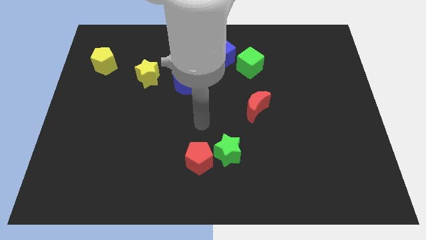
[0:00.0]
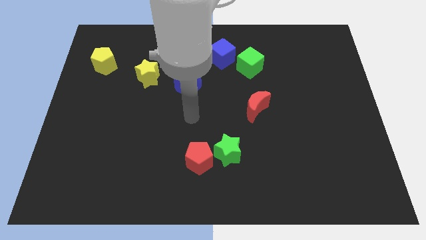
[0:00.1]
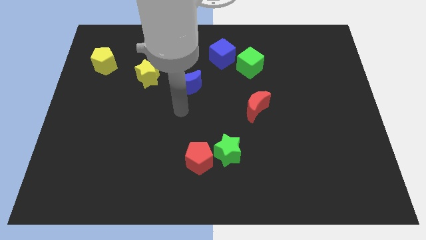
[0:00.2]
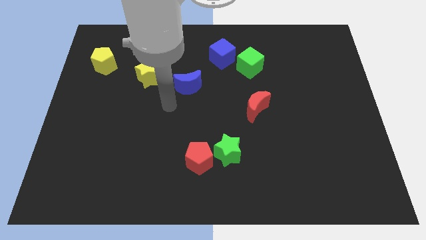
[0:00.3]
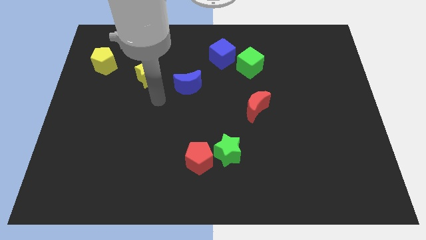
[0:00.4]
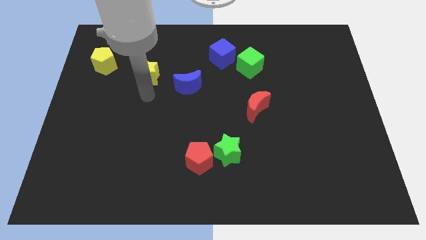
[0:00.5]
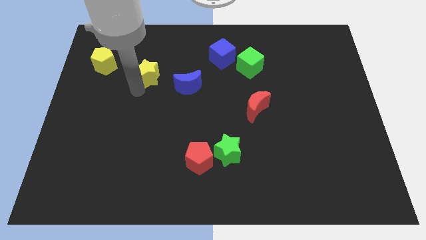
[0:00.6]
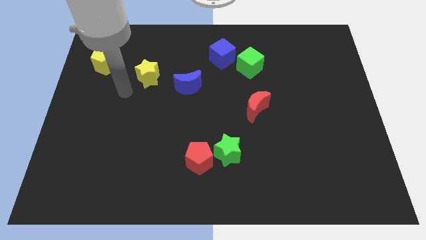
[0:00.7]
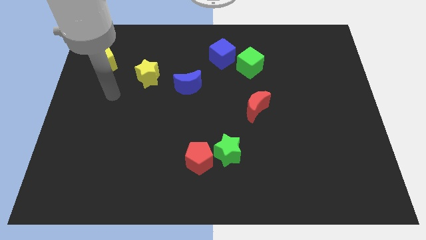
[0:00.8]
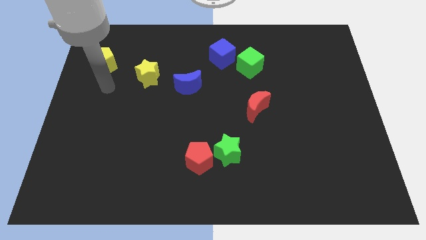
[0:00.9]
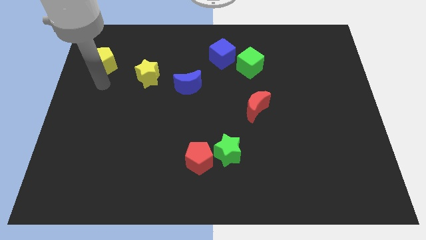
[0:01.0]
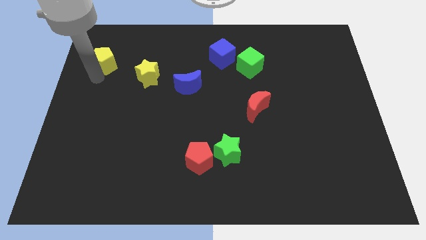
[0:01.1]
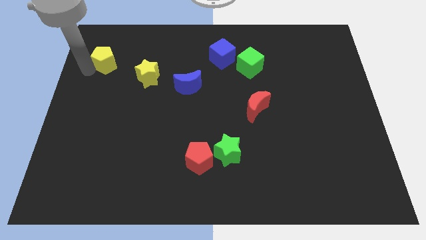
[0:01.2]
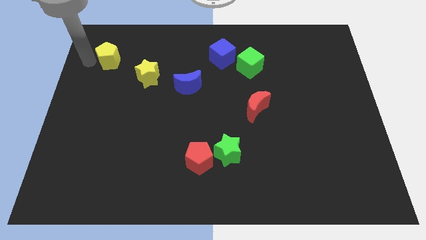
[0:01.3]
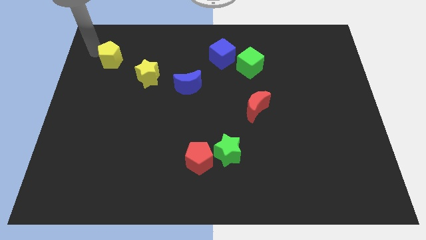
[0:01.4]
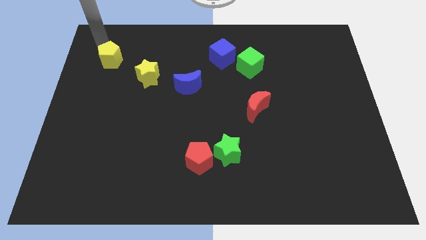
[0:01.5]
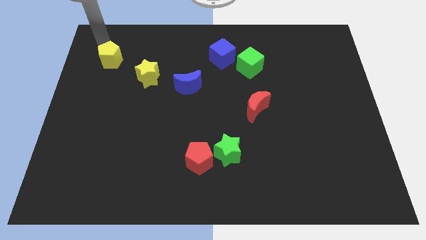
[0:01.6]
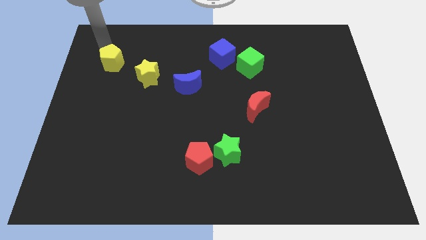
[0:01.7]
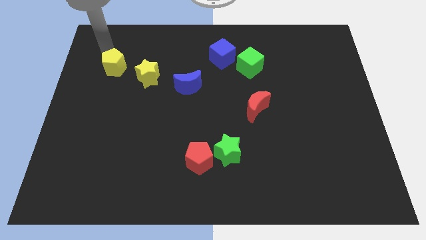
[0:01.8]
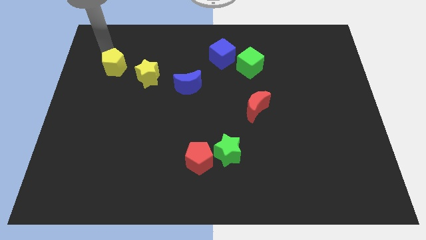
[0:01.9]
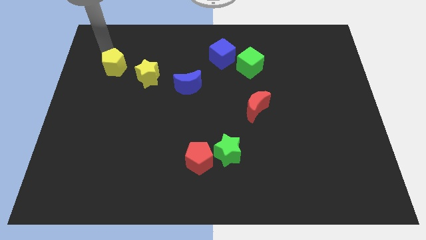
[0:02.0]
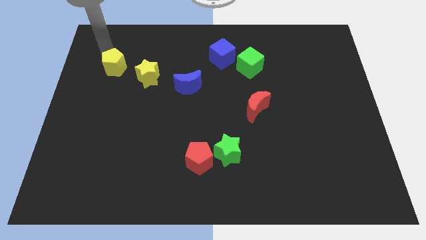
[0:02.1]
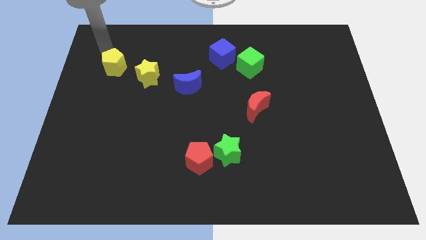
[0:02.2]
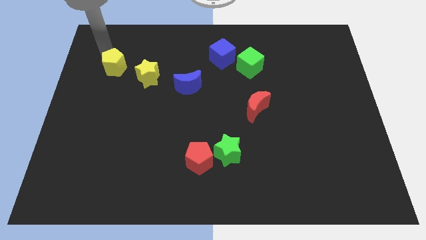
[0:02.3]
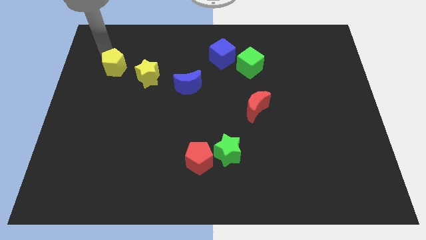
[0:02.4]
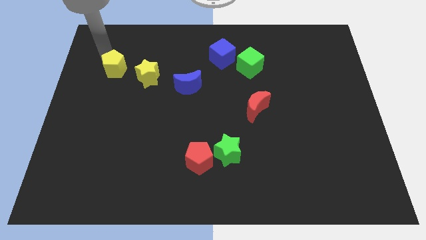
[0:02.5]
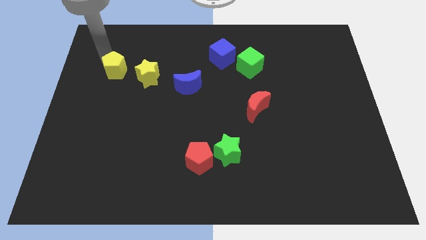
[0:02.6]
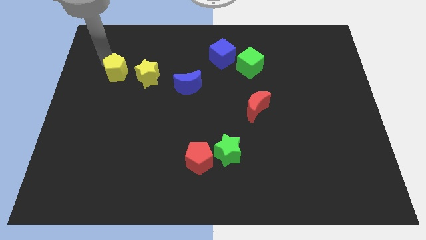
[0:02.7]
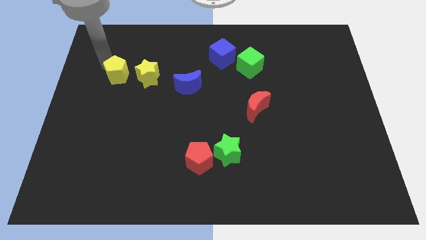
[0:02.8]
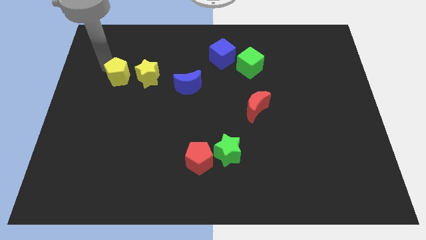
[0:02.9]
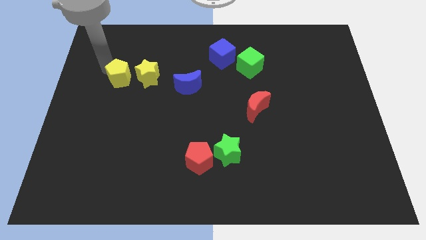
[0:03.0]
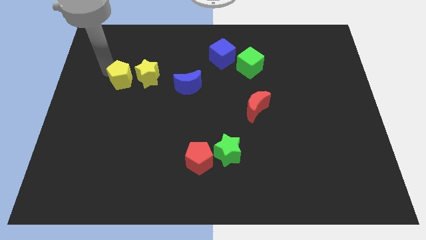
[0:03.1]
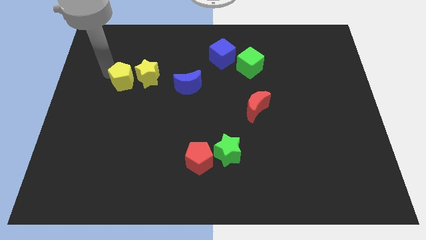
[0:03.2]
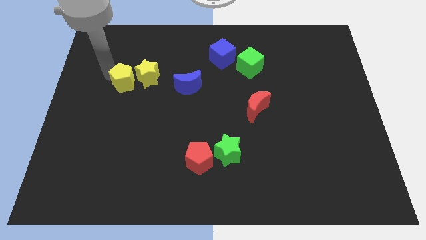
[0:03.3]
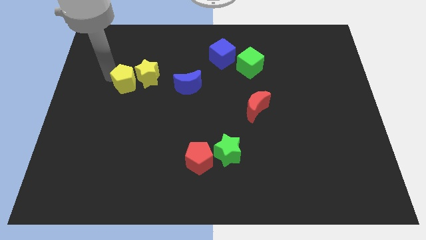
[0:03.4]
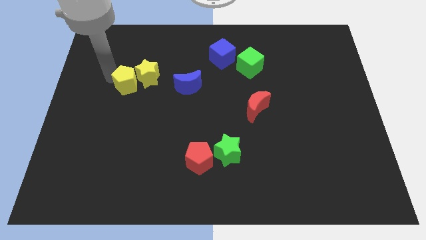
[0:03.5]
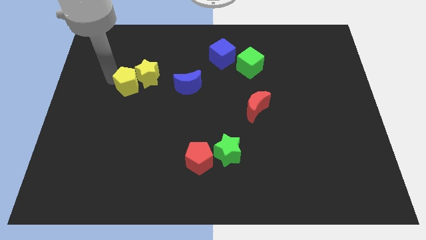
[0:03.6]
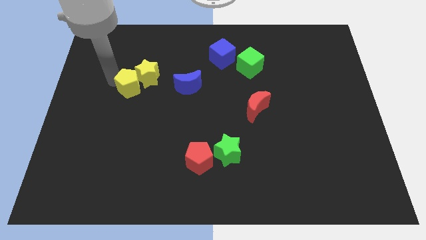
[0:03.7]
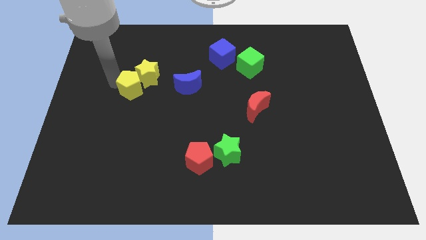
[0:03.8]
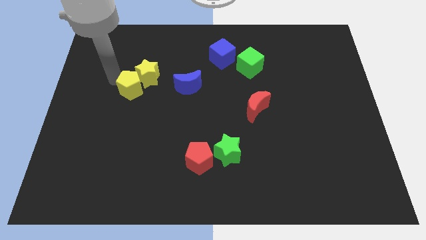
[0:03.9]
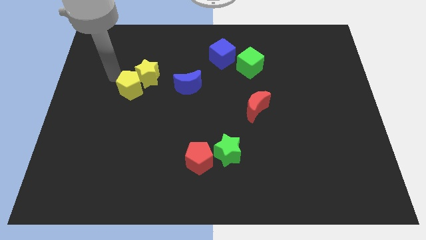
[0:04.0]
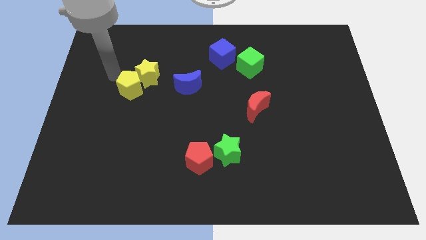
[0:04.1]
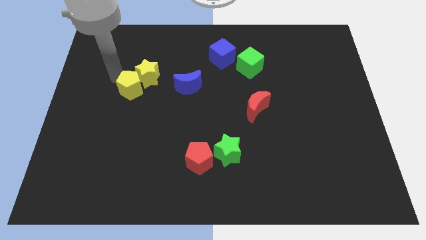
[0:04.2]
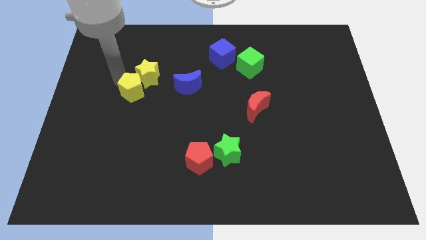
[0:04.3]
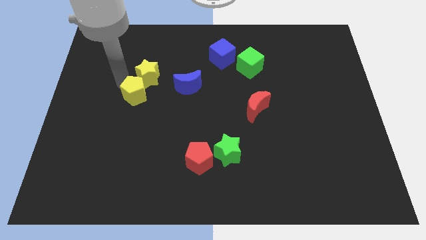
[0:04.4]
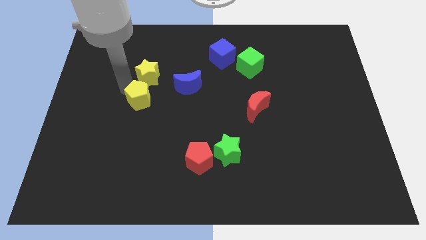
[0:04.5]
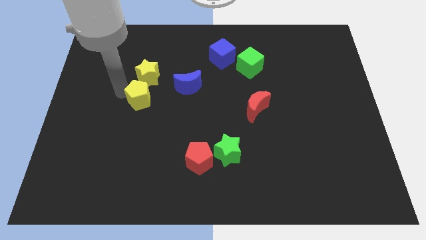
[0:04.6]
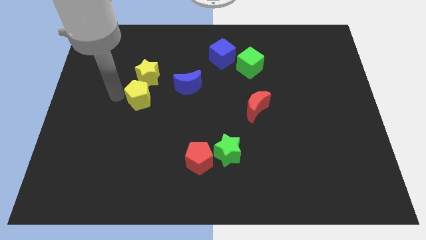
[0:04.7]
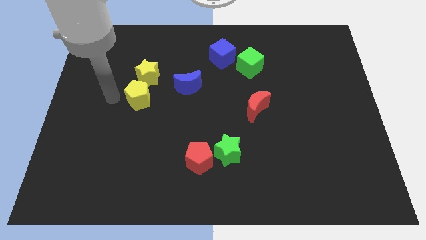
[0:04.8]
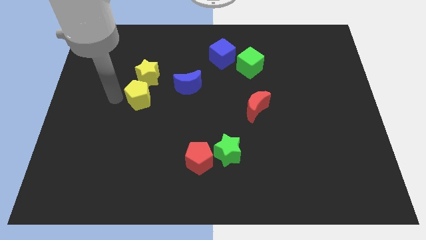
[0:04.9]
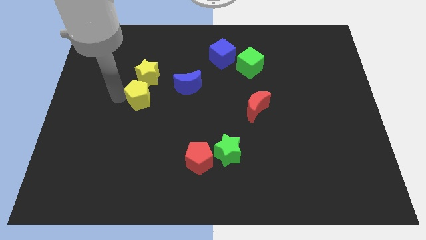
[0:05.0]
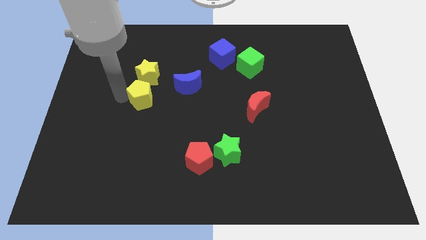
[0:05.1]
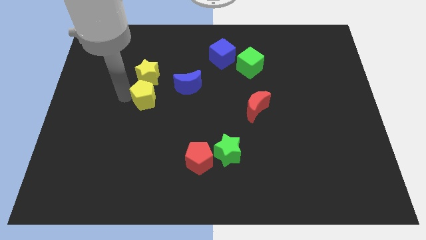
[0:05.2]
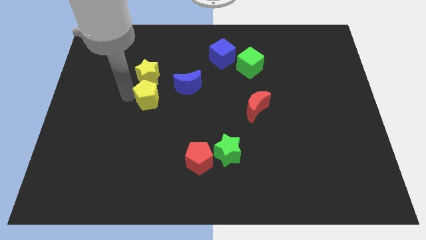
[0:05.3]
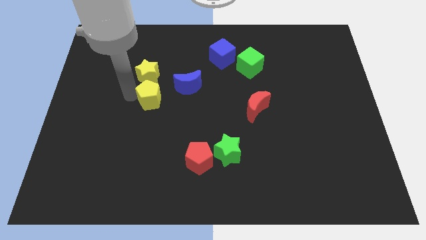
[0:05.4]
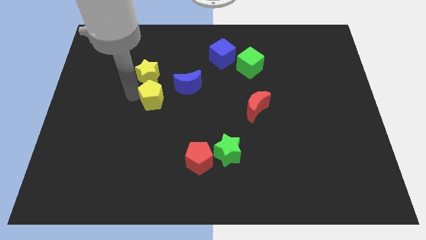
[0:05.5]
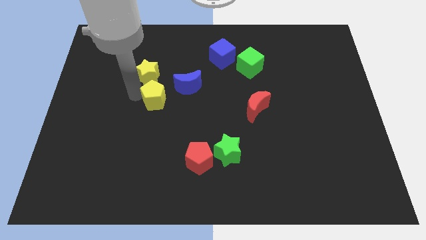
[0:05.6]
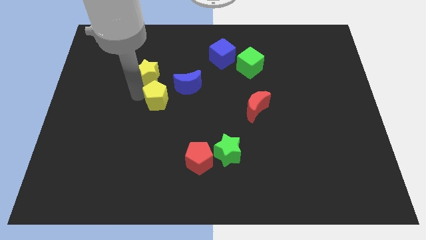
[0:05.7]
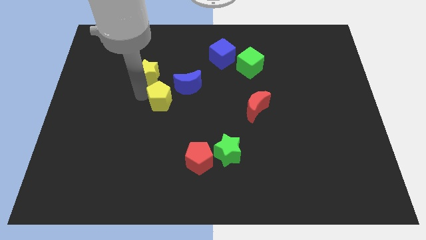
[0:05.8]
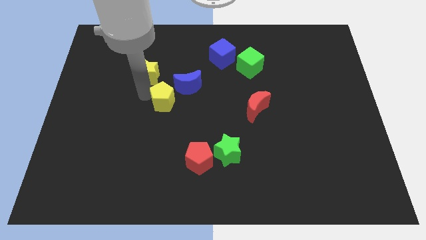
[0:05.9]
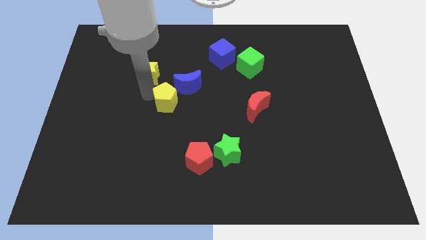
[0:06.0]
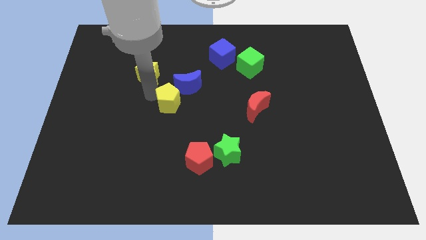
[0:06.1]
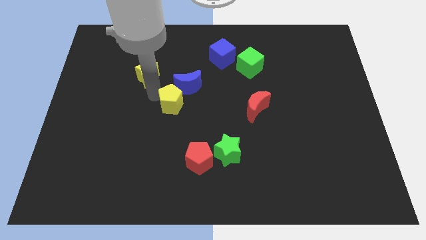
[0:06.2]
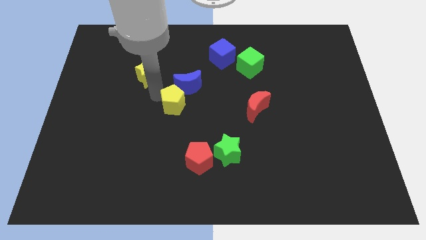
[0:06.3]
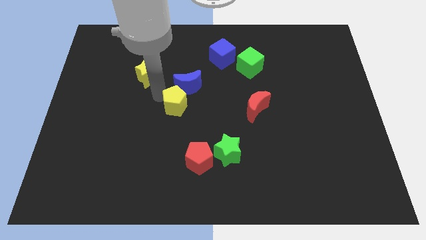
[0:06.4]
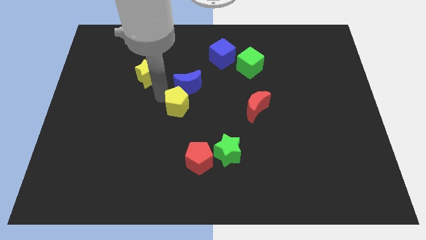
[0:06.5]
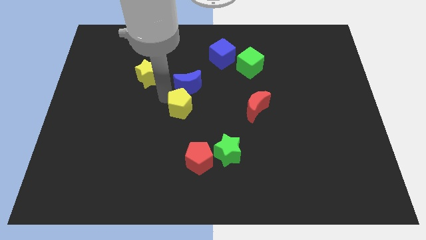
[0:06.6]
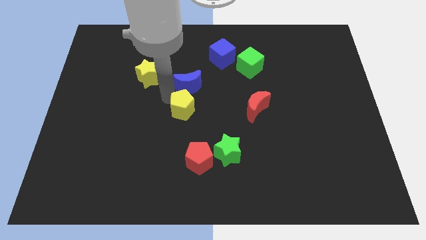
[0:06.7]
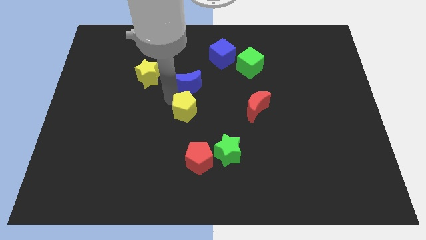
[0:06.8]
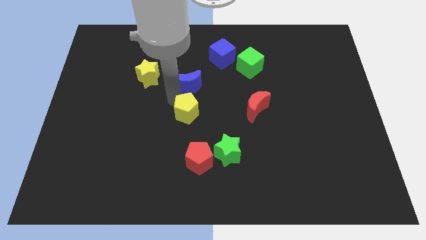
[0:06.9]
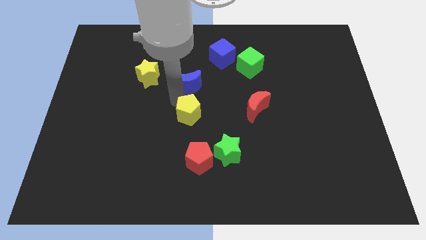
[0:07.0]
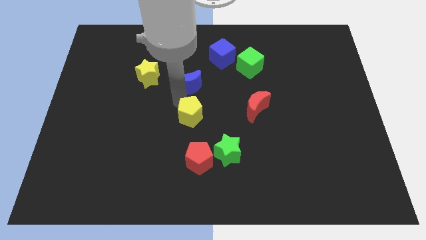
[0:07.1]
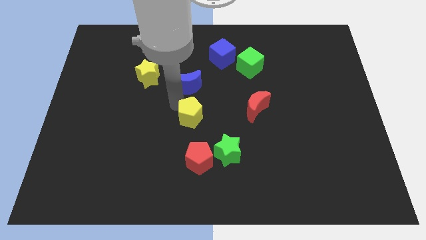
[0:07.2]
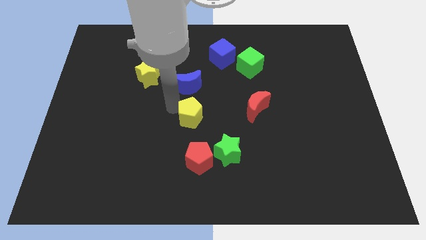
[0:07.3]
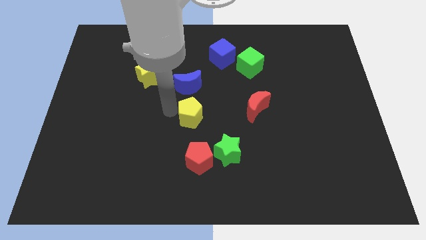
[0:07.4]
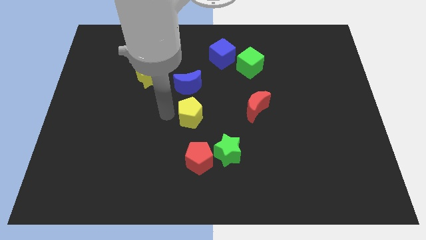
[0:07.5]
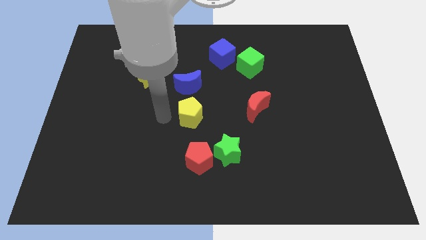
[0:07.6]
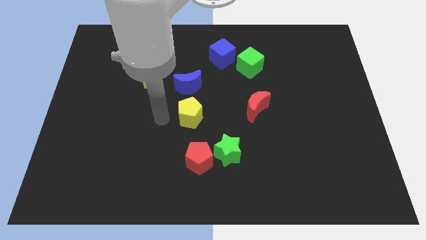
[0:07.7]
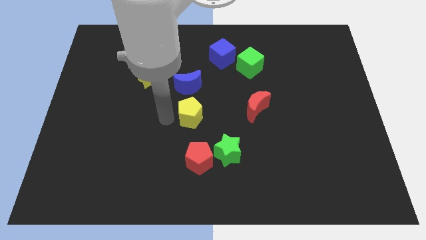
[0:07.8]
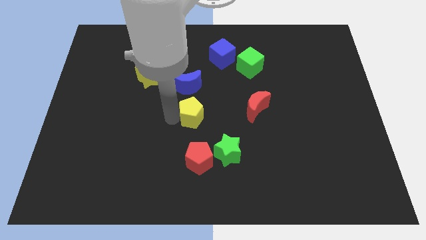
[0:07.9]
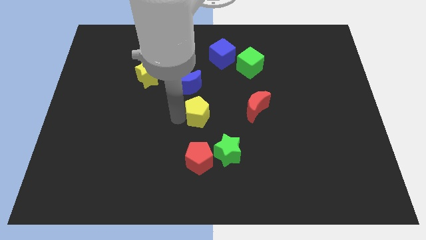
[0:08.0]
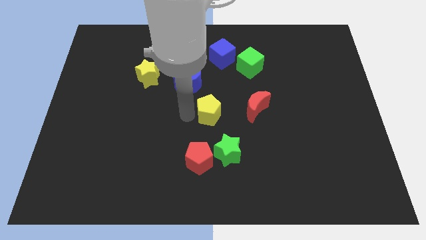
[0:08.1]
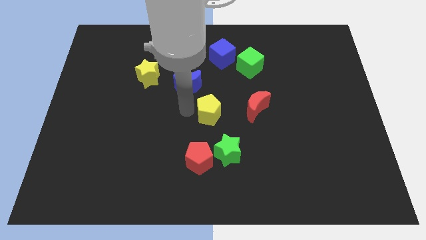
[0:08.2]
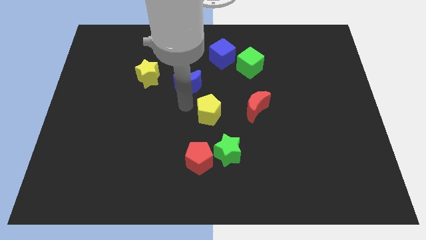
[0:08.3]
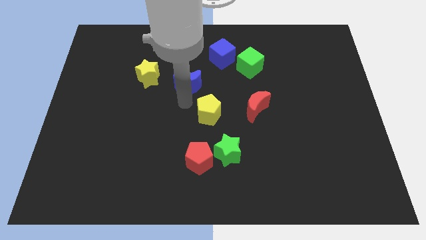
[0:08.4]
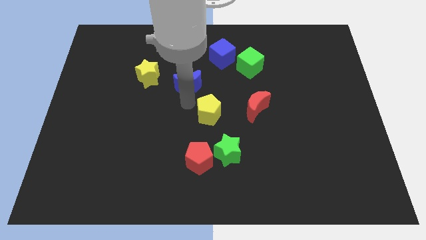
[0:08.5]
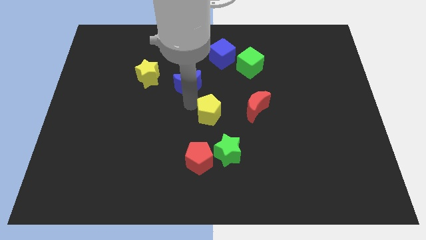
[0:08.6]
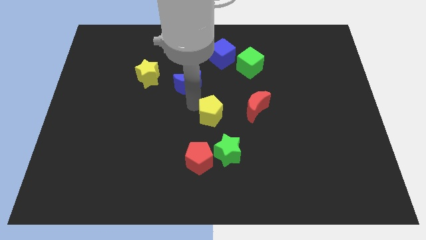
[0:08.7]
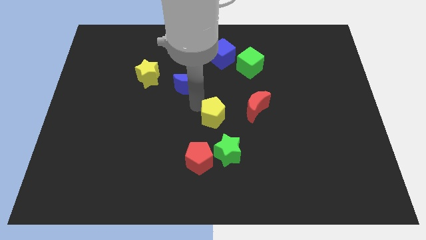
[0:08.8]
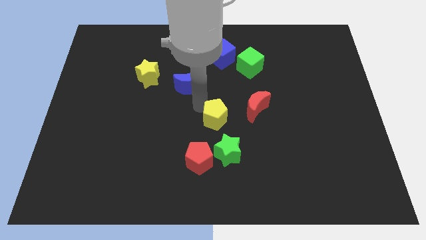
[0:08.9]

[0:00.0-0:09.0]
move the yellow pentagon to the bottom left of the red moon
